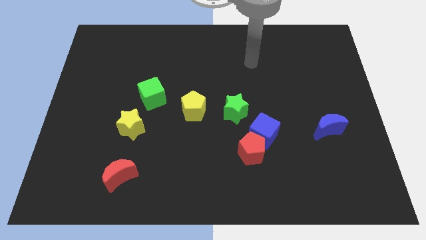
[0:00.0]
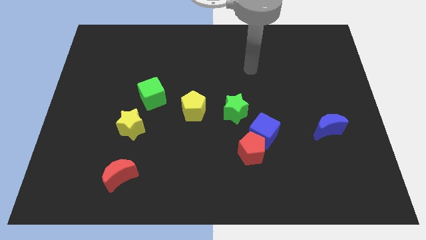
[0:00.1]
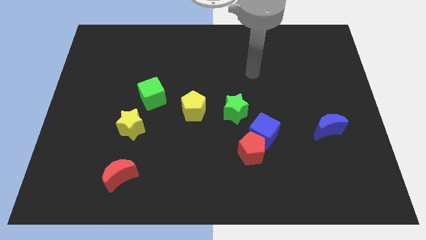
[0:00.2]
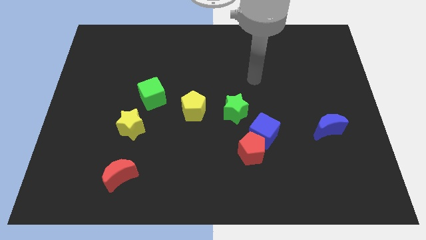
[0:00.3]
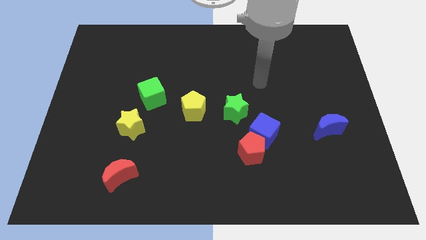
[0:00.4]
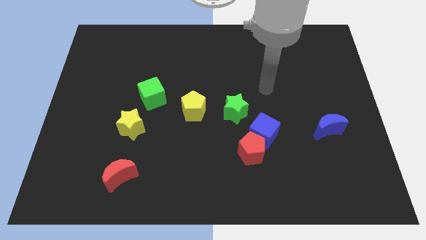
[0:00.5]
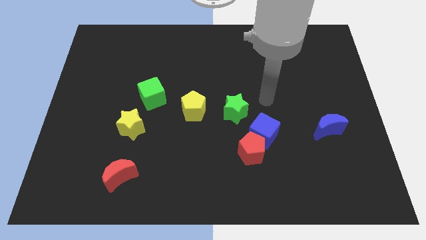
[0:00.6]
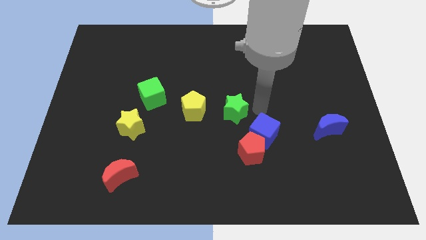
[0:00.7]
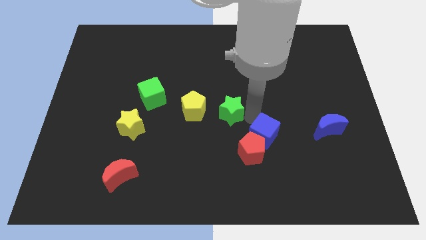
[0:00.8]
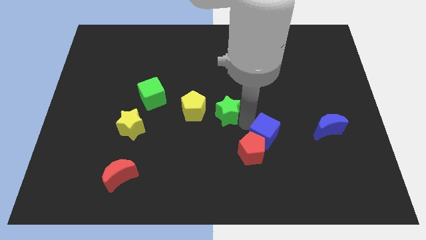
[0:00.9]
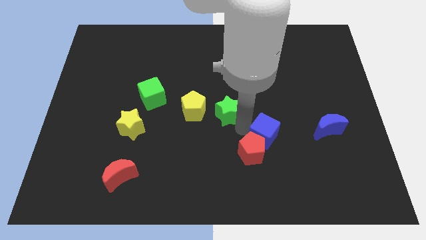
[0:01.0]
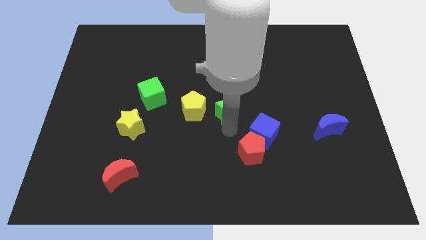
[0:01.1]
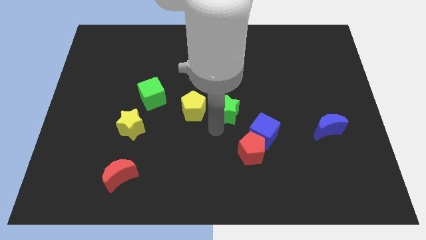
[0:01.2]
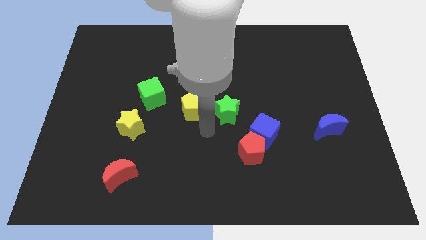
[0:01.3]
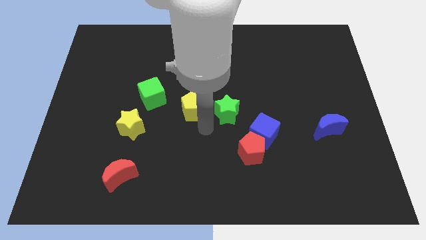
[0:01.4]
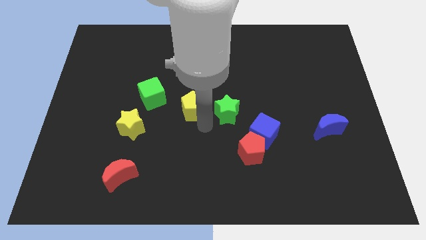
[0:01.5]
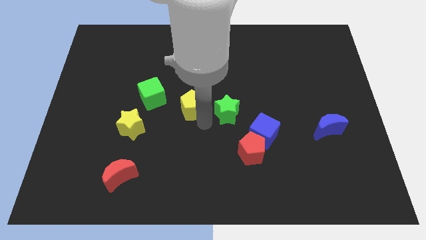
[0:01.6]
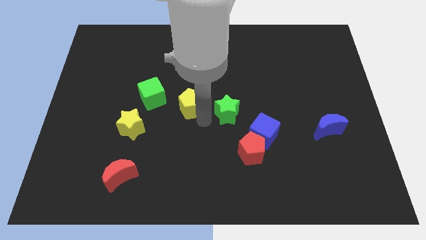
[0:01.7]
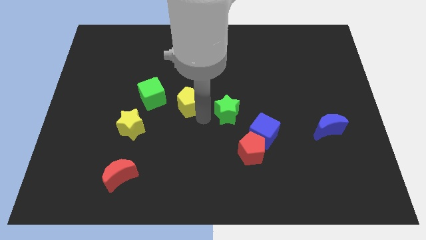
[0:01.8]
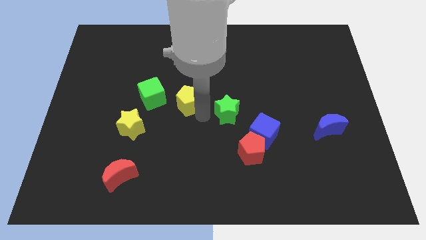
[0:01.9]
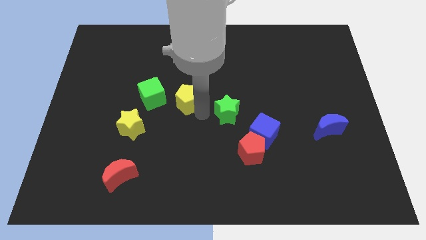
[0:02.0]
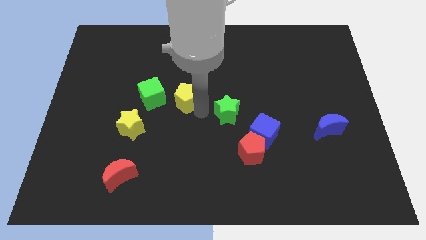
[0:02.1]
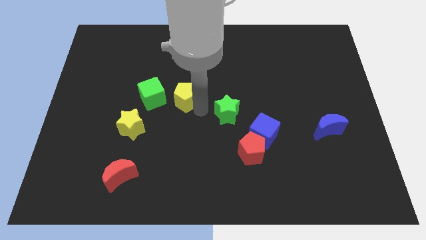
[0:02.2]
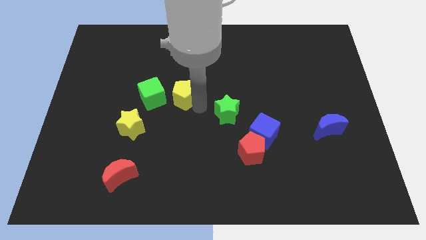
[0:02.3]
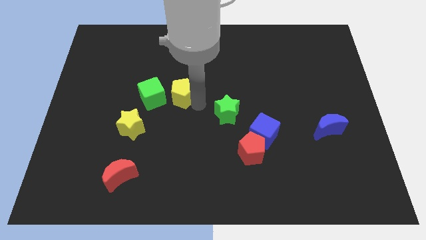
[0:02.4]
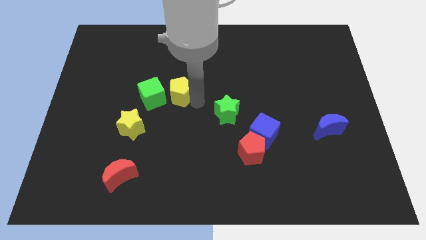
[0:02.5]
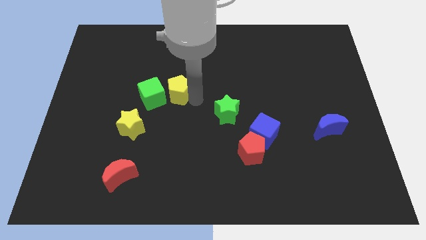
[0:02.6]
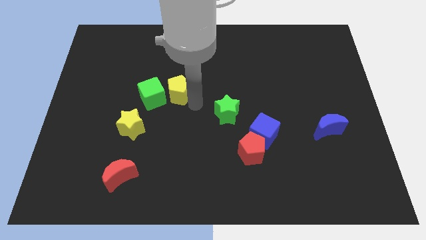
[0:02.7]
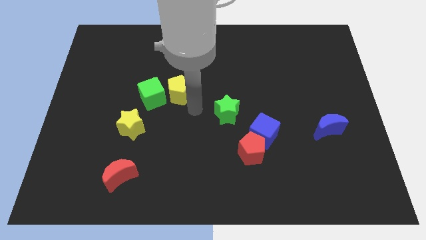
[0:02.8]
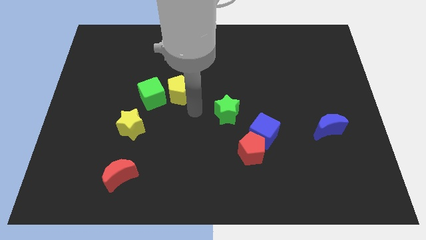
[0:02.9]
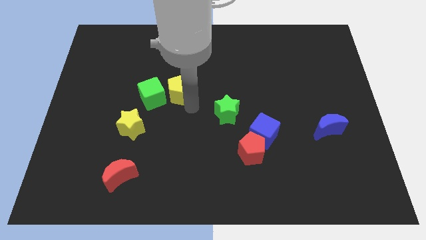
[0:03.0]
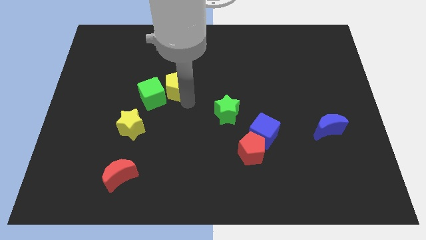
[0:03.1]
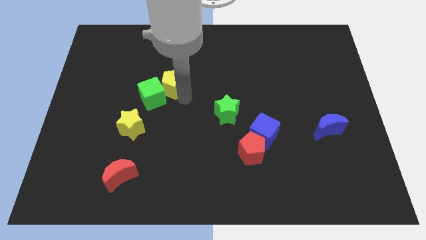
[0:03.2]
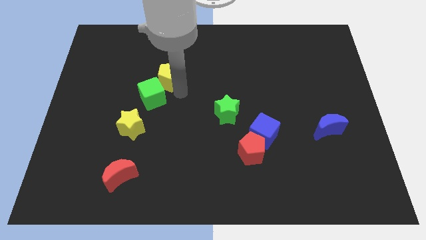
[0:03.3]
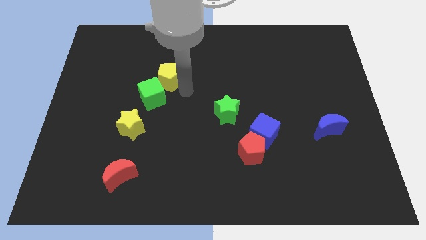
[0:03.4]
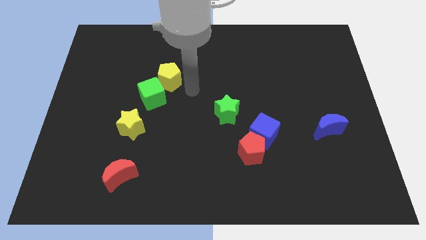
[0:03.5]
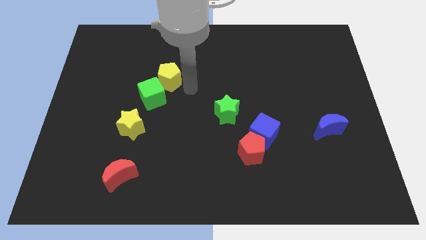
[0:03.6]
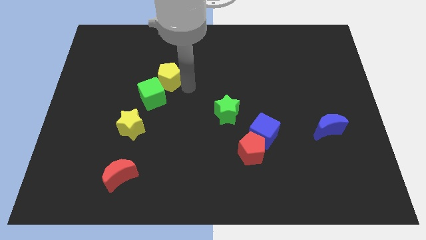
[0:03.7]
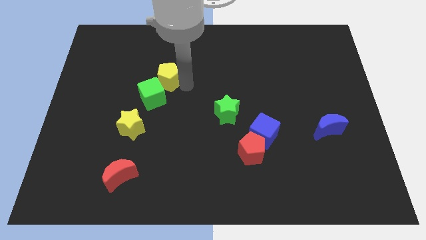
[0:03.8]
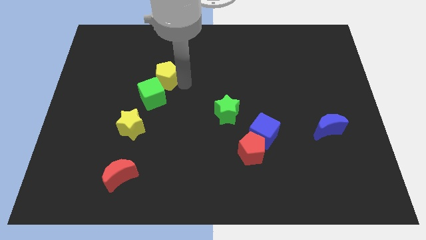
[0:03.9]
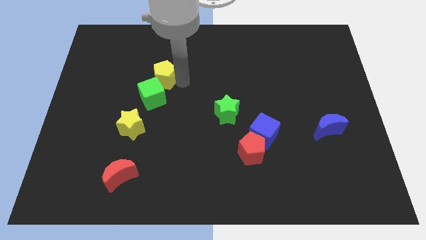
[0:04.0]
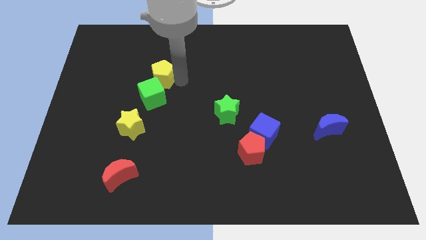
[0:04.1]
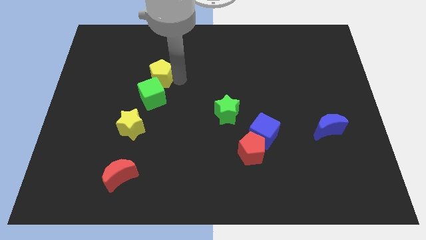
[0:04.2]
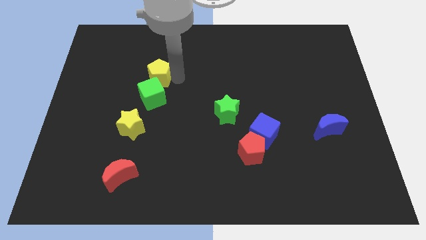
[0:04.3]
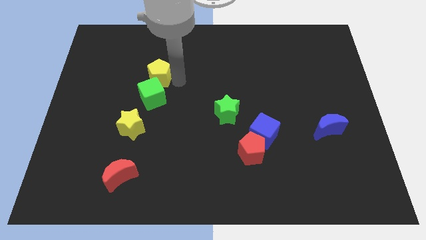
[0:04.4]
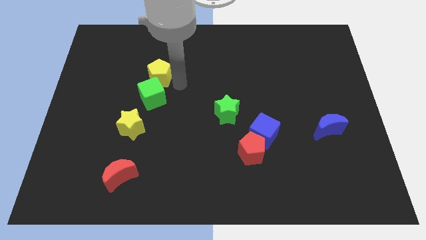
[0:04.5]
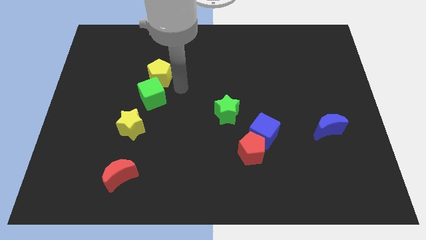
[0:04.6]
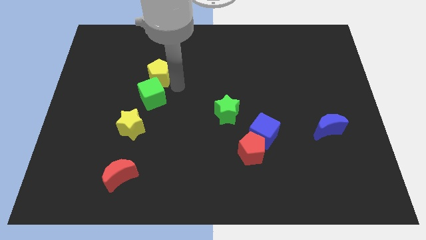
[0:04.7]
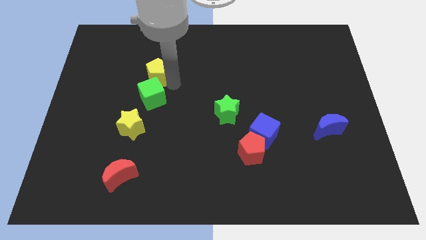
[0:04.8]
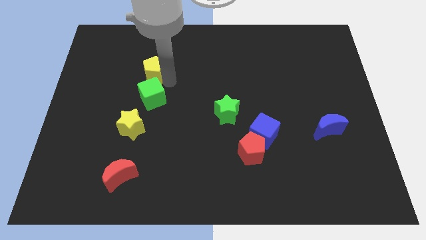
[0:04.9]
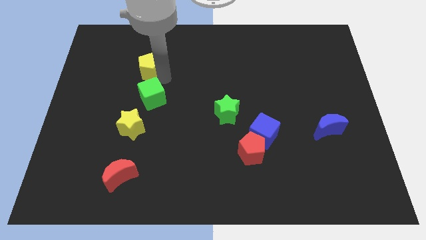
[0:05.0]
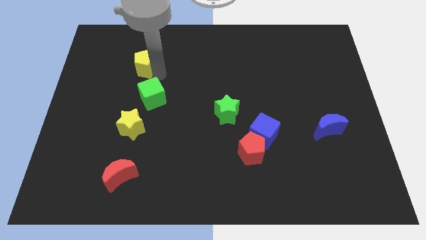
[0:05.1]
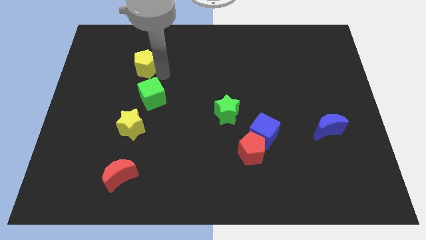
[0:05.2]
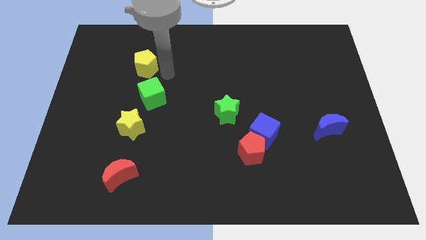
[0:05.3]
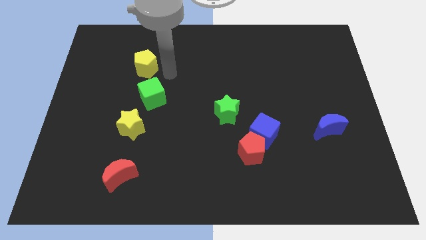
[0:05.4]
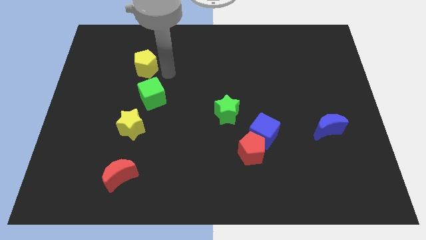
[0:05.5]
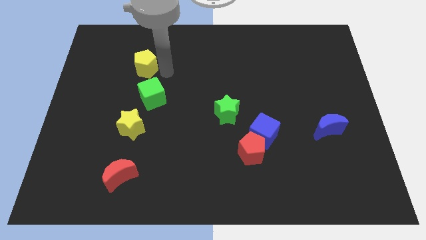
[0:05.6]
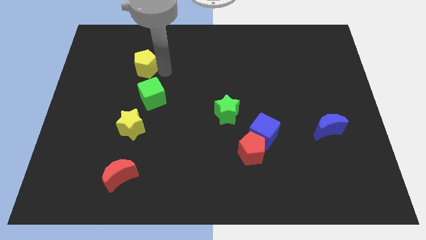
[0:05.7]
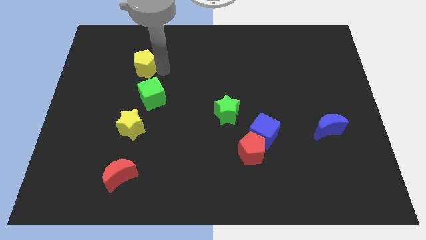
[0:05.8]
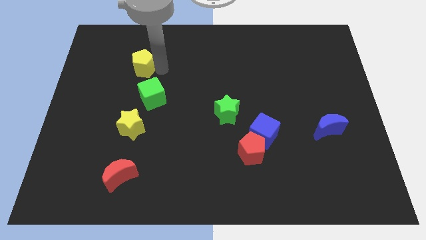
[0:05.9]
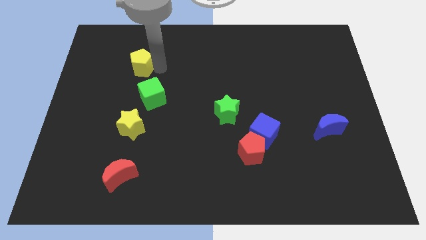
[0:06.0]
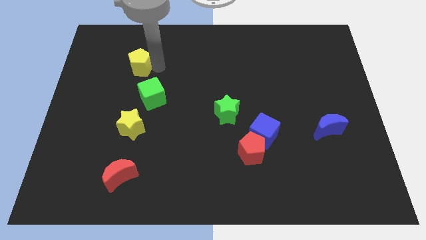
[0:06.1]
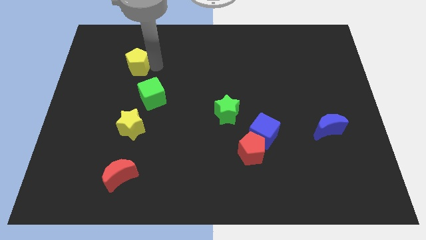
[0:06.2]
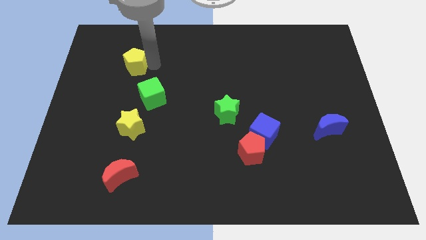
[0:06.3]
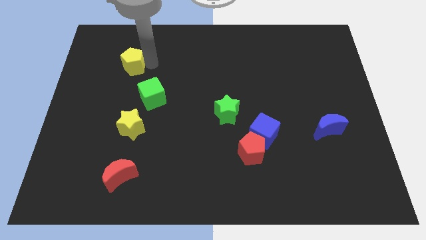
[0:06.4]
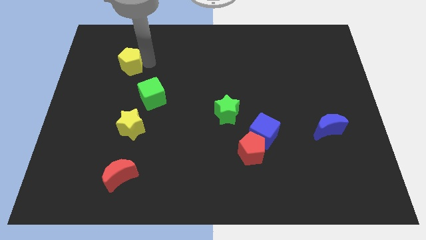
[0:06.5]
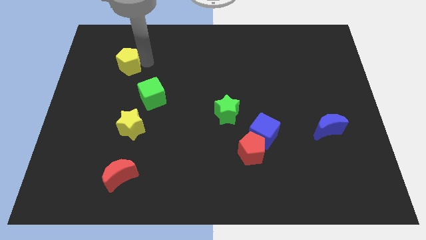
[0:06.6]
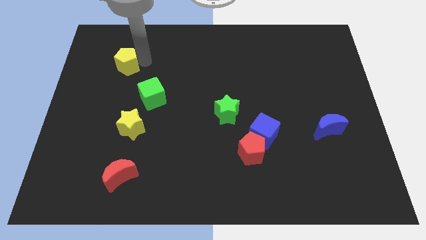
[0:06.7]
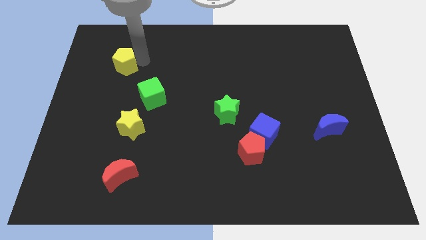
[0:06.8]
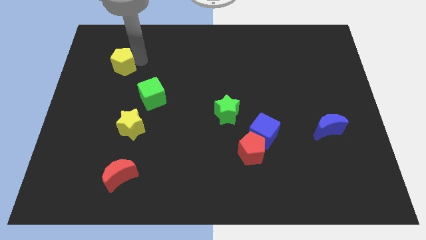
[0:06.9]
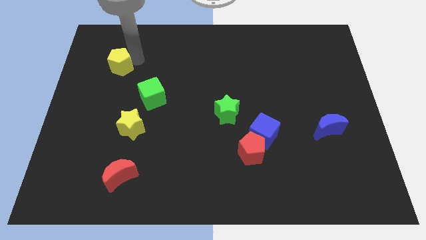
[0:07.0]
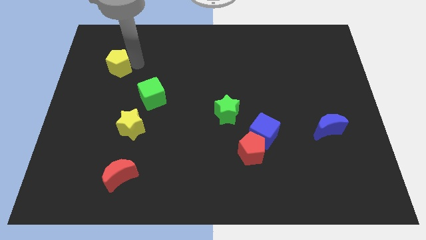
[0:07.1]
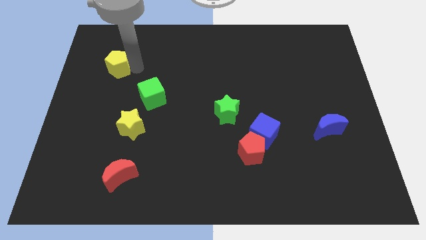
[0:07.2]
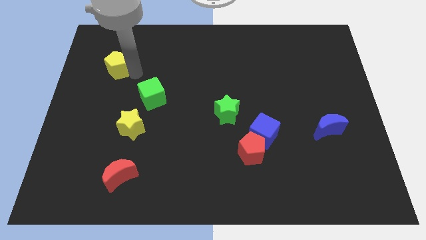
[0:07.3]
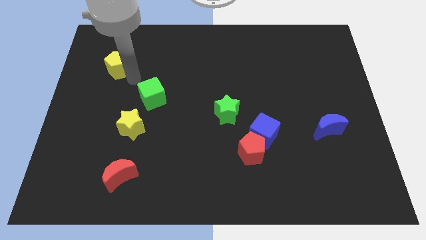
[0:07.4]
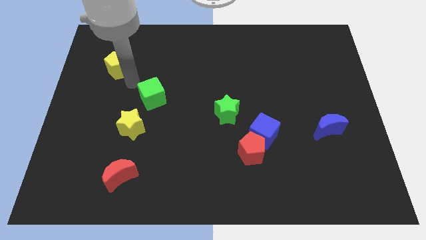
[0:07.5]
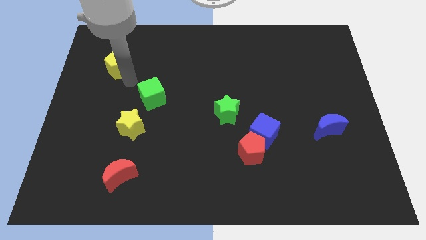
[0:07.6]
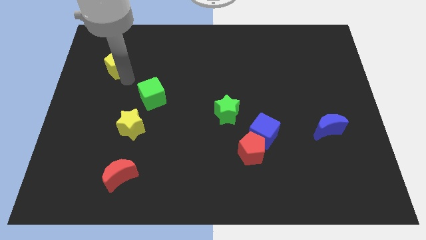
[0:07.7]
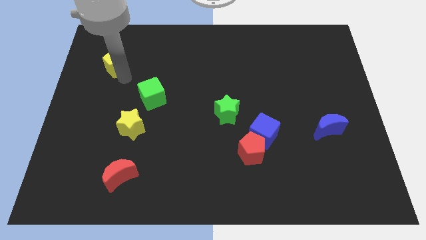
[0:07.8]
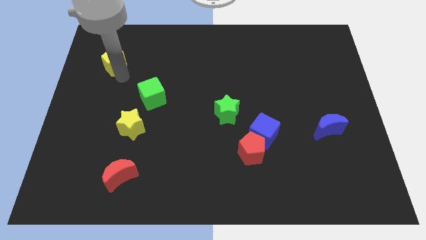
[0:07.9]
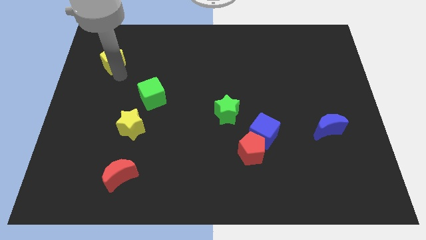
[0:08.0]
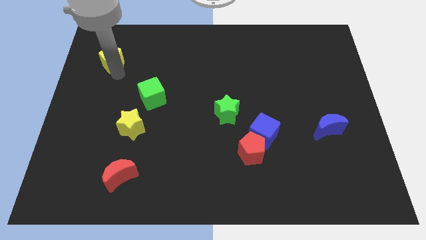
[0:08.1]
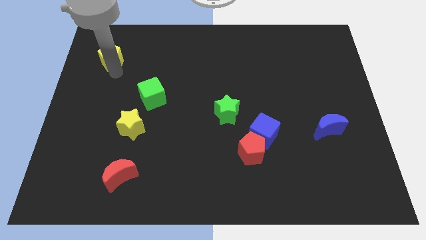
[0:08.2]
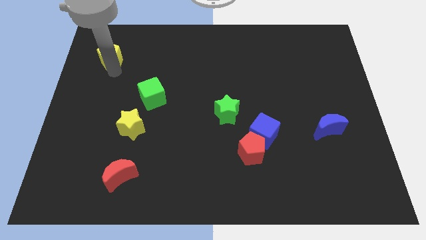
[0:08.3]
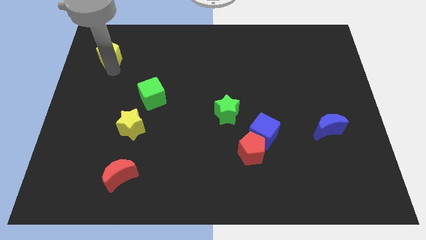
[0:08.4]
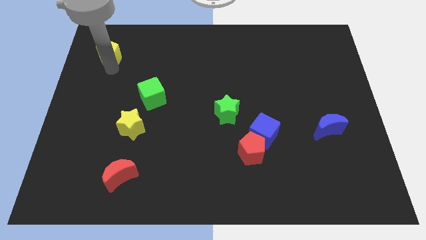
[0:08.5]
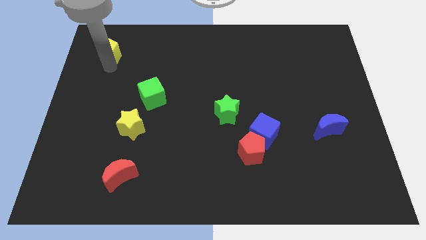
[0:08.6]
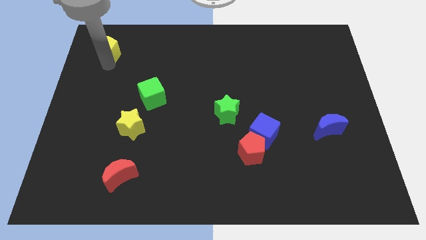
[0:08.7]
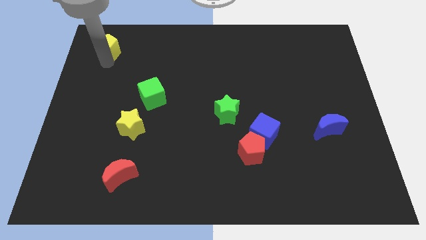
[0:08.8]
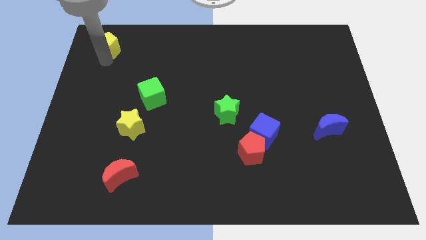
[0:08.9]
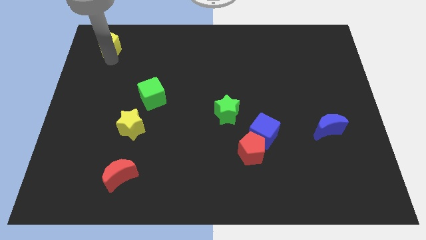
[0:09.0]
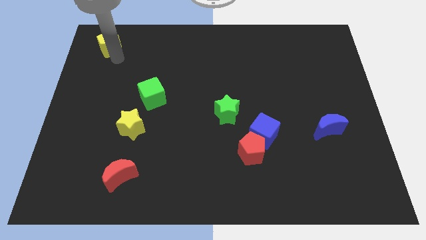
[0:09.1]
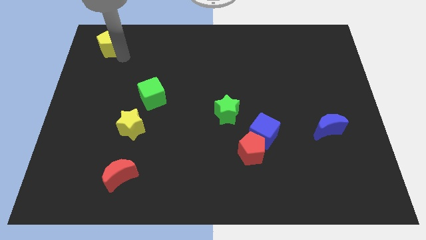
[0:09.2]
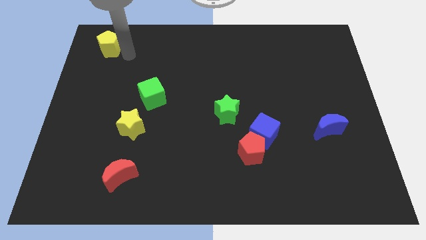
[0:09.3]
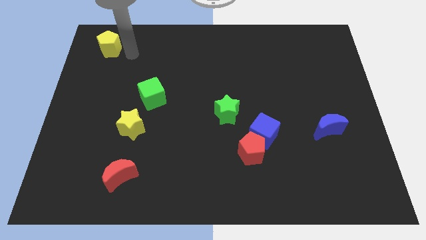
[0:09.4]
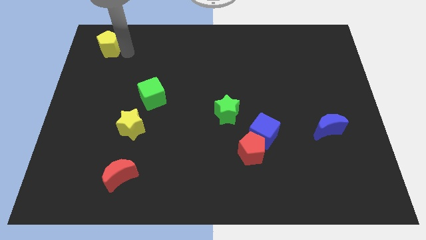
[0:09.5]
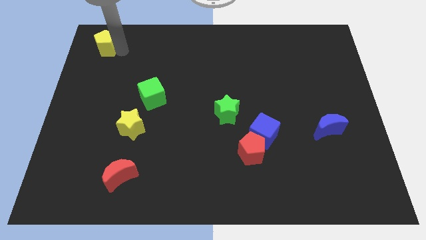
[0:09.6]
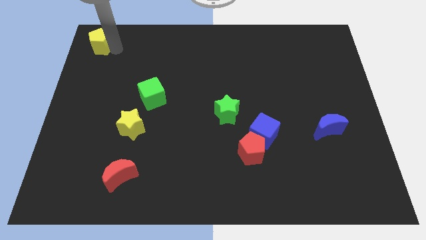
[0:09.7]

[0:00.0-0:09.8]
slide the yellow pentagon to the top left
